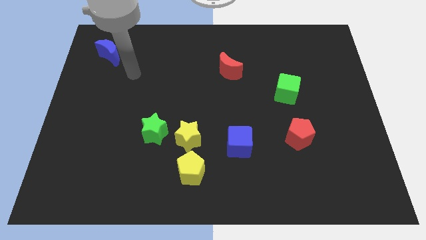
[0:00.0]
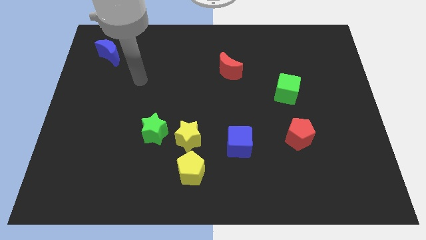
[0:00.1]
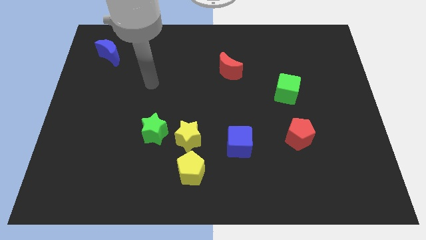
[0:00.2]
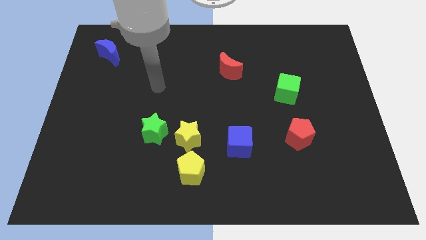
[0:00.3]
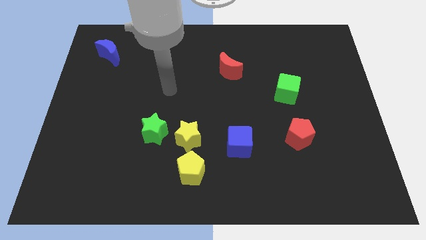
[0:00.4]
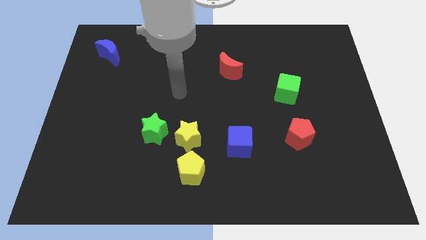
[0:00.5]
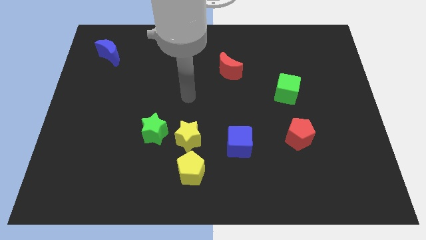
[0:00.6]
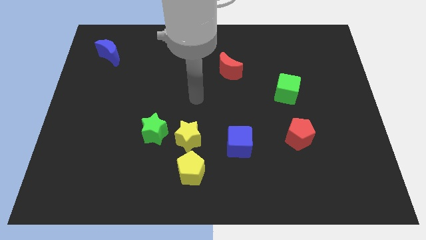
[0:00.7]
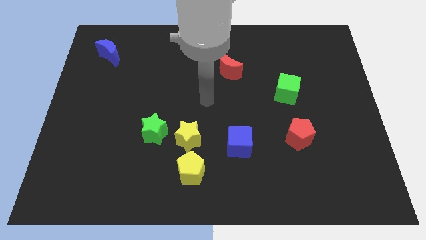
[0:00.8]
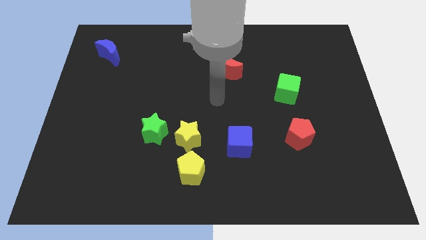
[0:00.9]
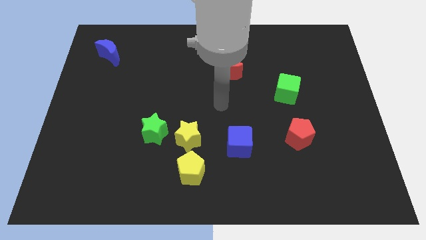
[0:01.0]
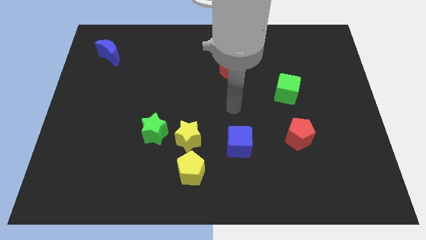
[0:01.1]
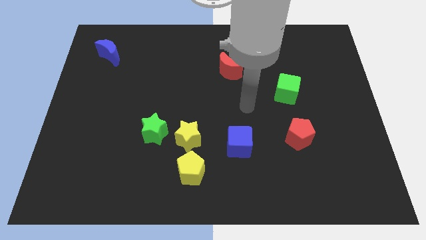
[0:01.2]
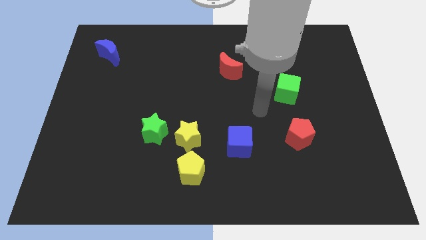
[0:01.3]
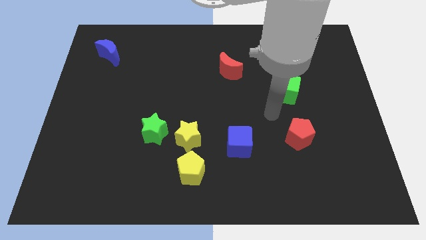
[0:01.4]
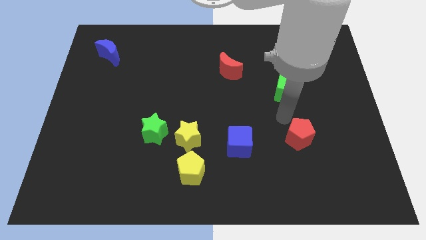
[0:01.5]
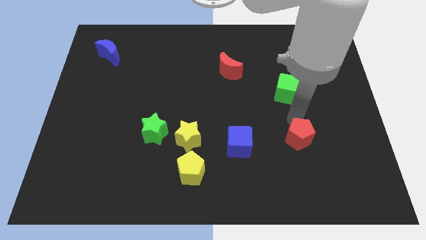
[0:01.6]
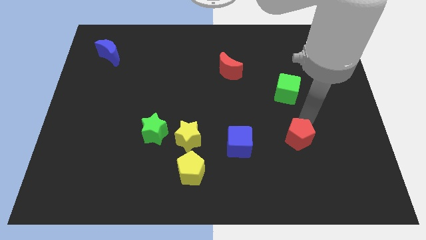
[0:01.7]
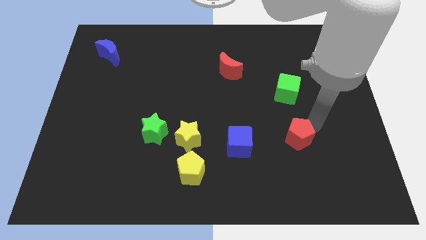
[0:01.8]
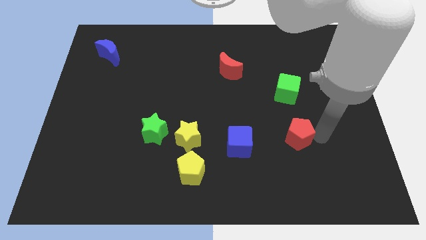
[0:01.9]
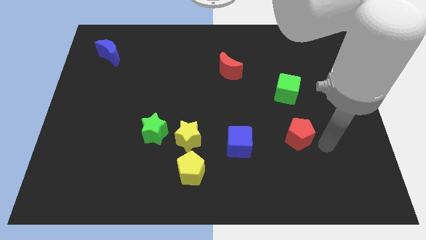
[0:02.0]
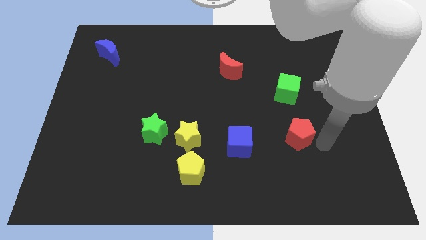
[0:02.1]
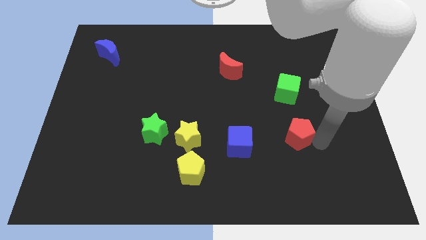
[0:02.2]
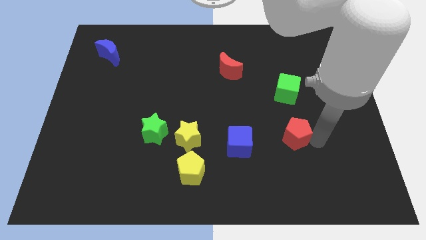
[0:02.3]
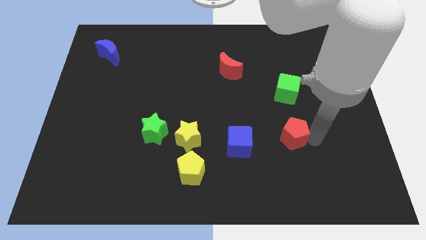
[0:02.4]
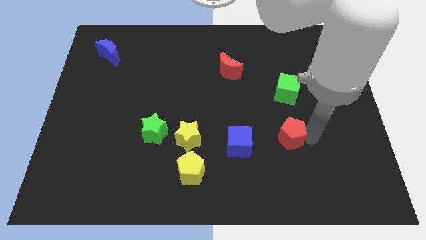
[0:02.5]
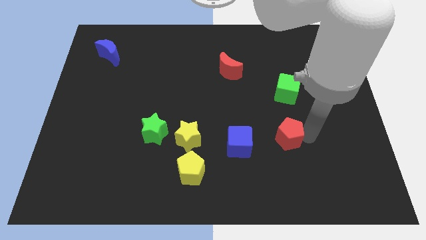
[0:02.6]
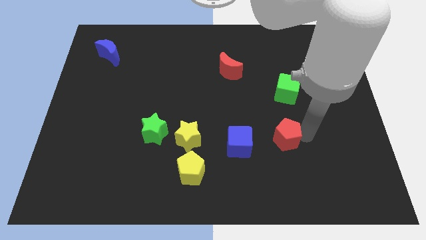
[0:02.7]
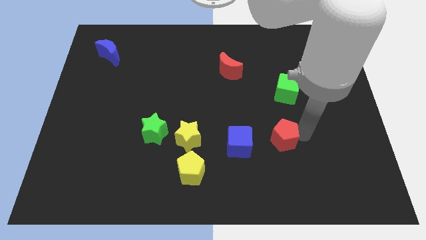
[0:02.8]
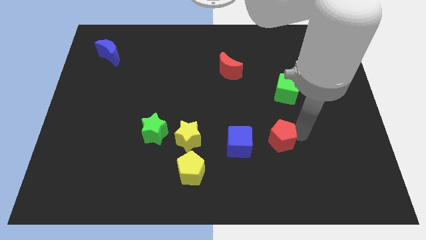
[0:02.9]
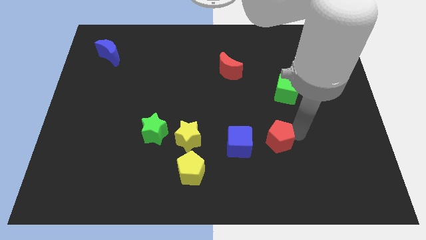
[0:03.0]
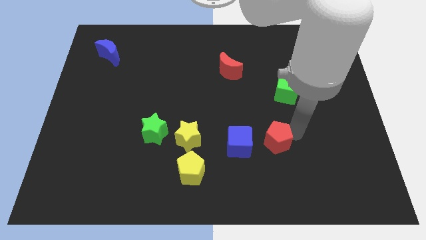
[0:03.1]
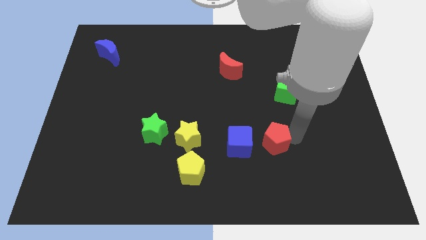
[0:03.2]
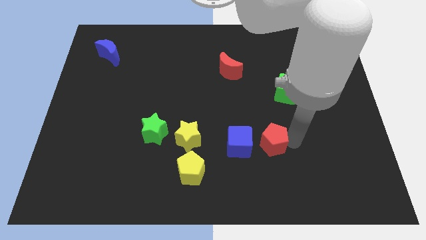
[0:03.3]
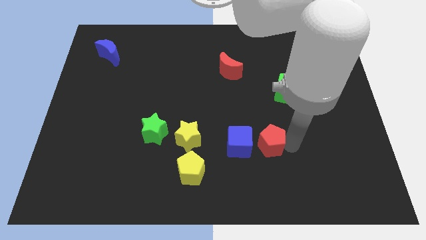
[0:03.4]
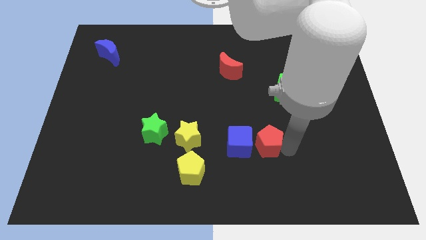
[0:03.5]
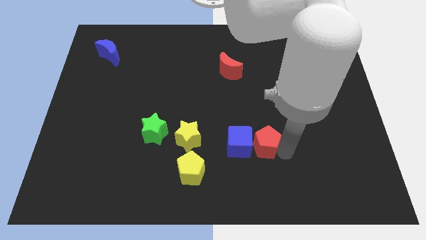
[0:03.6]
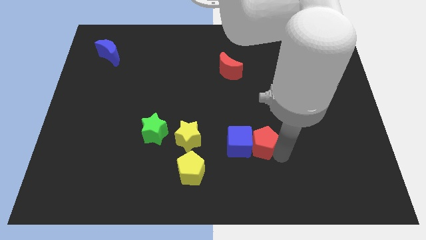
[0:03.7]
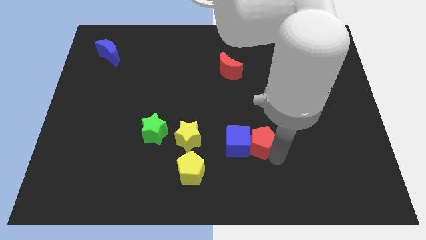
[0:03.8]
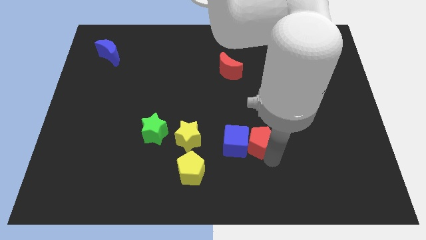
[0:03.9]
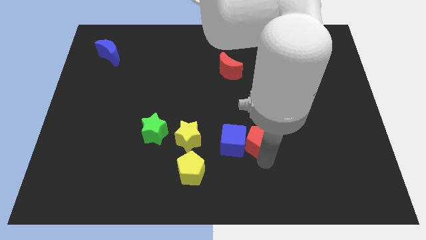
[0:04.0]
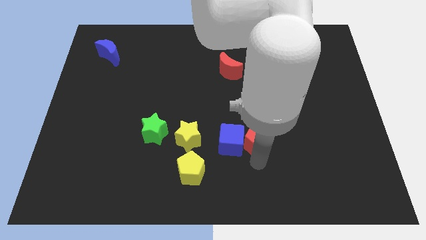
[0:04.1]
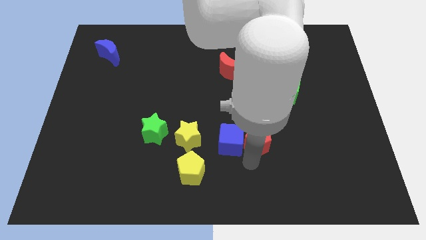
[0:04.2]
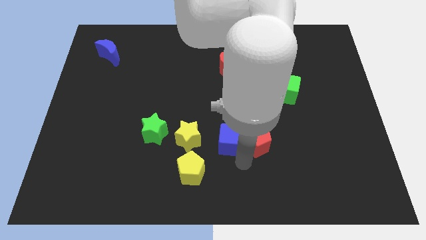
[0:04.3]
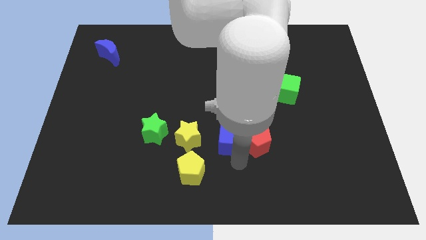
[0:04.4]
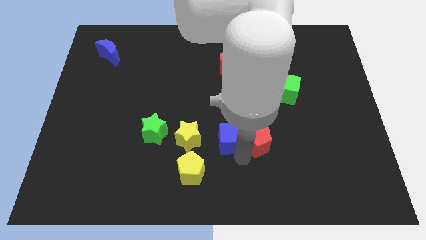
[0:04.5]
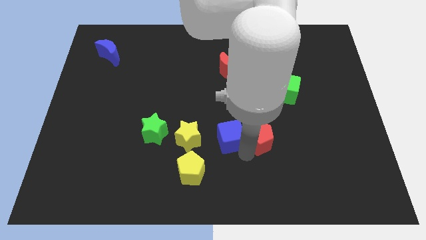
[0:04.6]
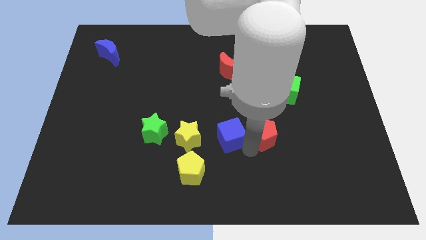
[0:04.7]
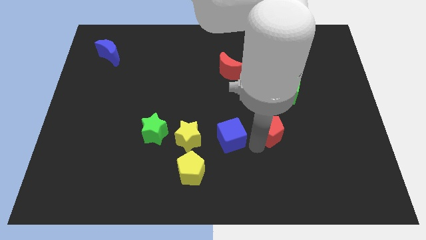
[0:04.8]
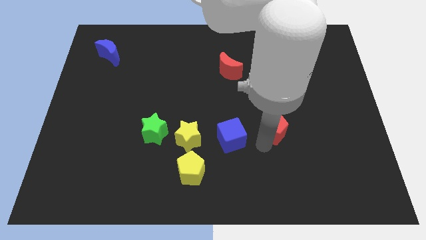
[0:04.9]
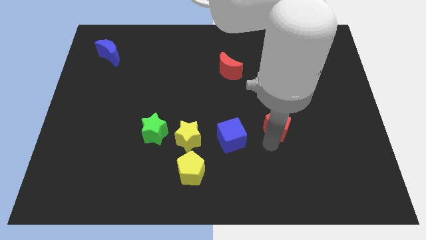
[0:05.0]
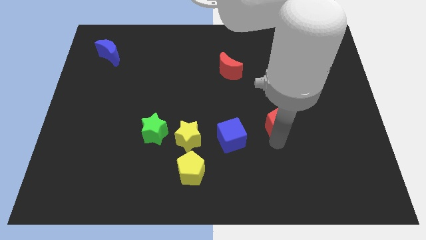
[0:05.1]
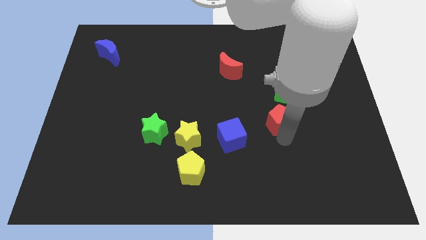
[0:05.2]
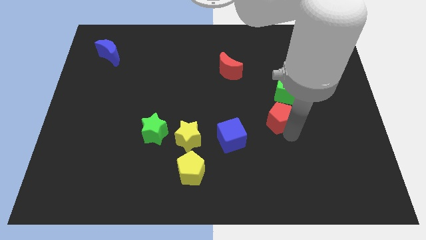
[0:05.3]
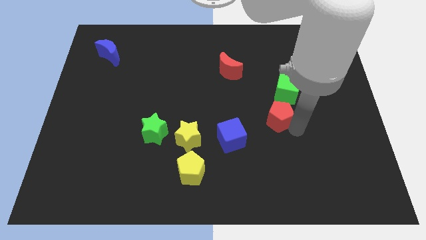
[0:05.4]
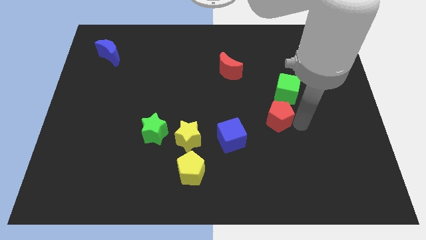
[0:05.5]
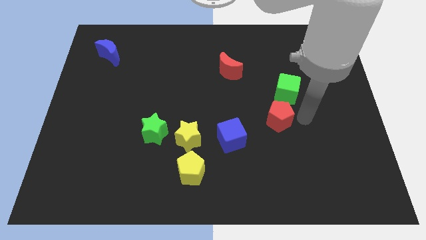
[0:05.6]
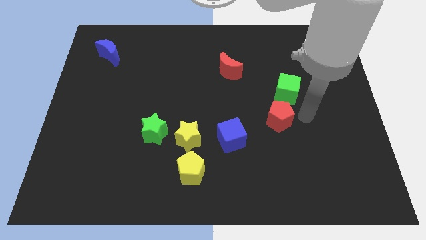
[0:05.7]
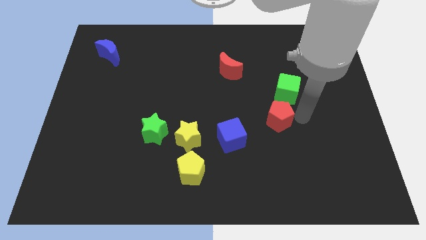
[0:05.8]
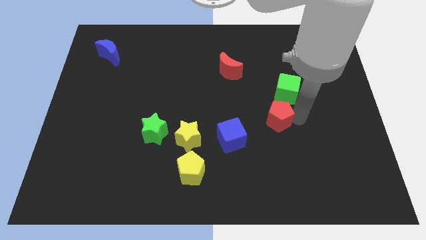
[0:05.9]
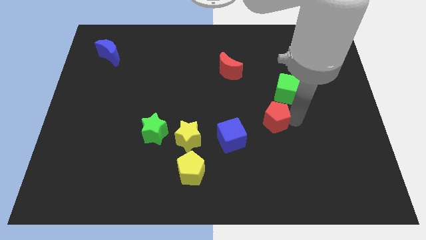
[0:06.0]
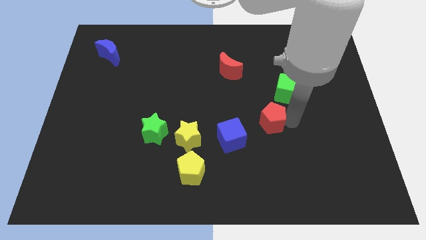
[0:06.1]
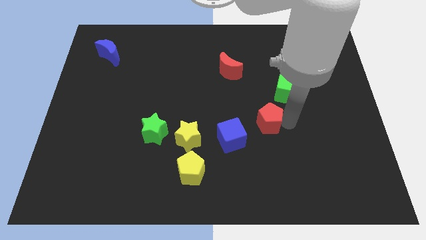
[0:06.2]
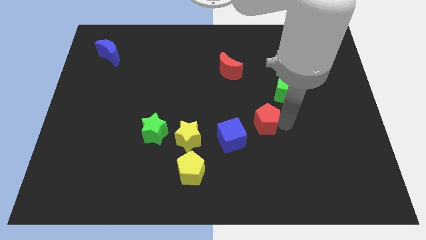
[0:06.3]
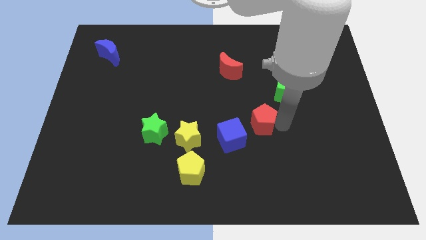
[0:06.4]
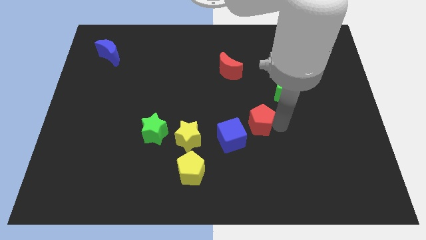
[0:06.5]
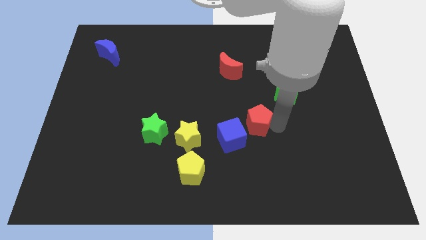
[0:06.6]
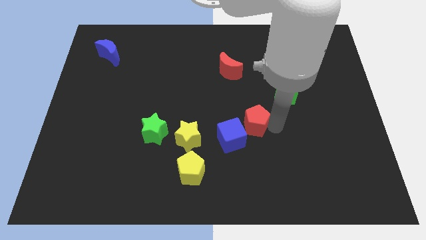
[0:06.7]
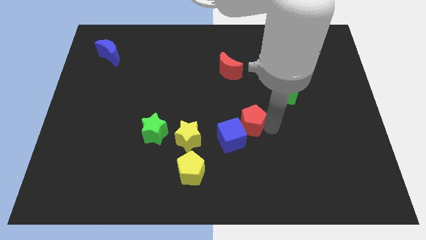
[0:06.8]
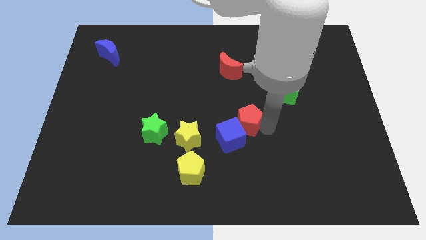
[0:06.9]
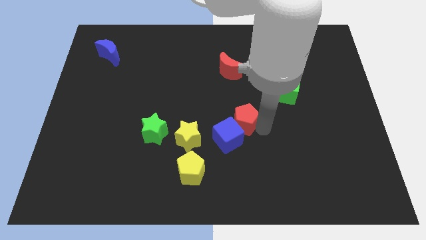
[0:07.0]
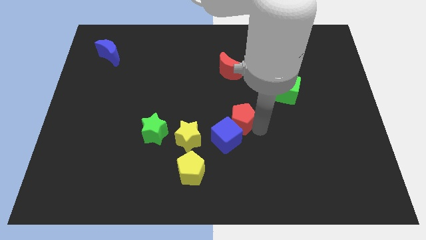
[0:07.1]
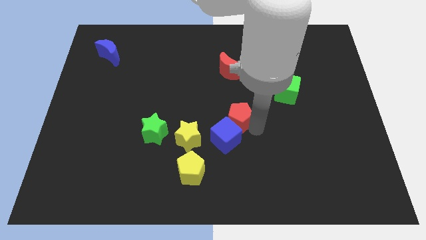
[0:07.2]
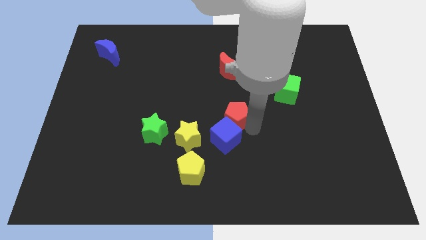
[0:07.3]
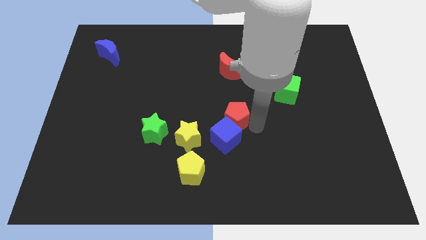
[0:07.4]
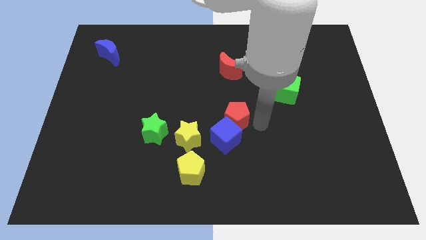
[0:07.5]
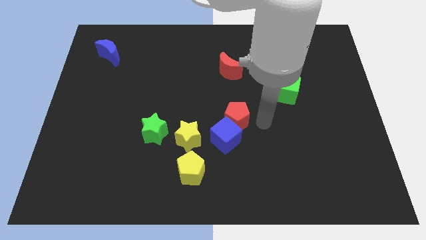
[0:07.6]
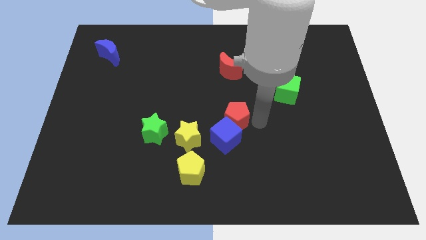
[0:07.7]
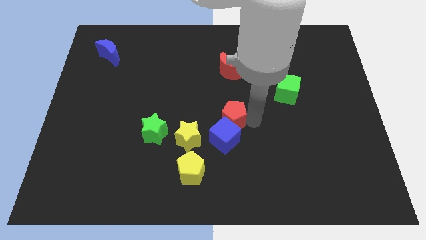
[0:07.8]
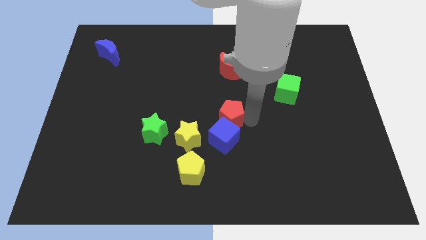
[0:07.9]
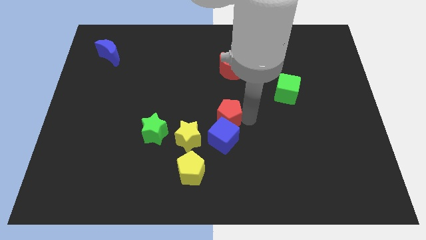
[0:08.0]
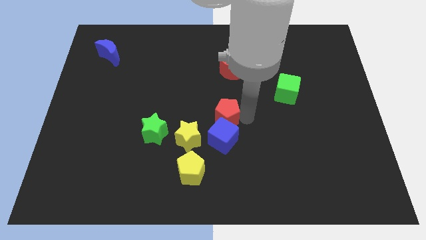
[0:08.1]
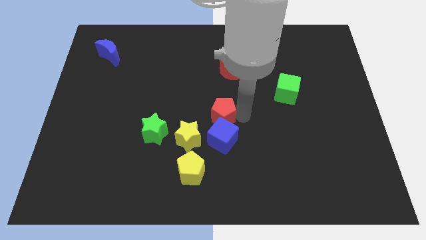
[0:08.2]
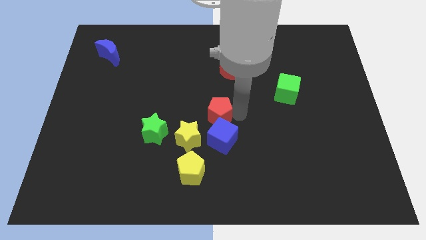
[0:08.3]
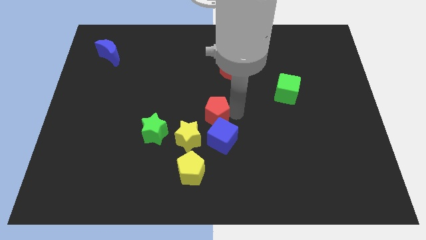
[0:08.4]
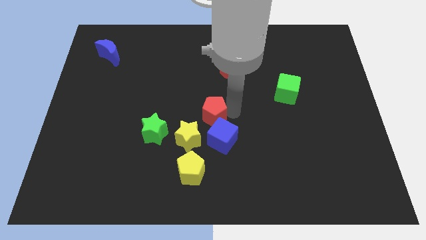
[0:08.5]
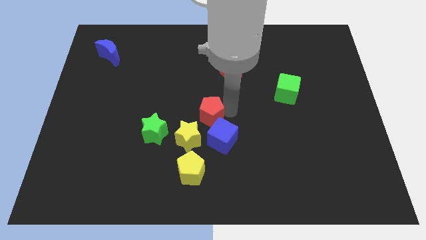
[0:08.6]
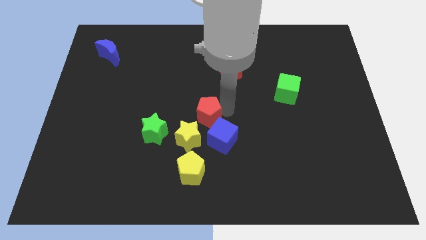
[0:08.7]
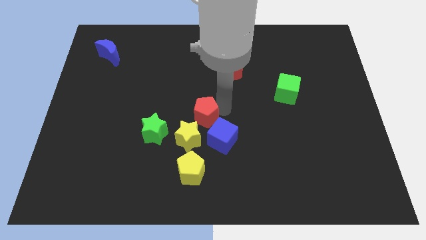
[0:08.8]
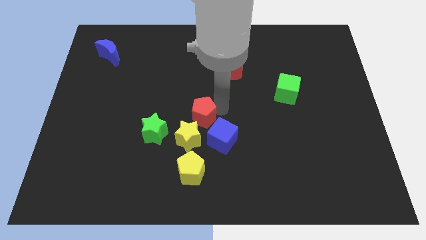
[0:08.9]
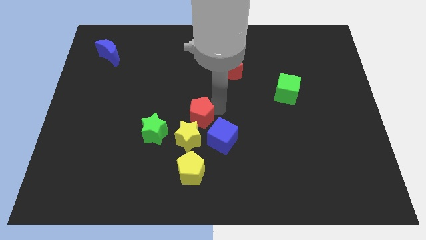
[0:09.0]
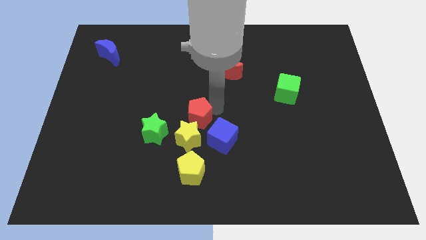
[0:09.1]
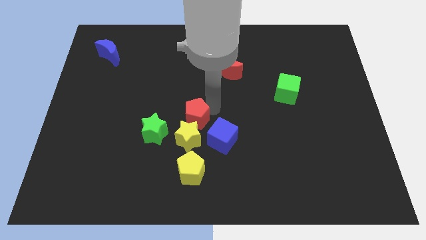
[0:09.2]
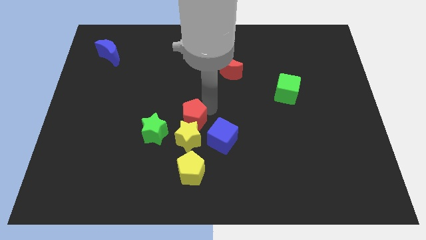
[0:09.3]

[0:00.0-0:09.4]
slide the red pentagon diagonally up and to the left of the yellow star
